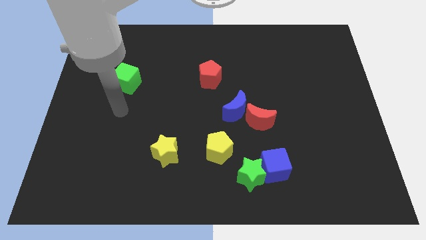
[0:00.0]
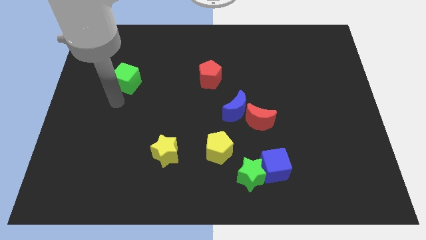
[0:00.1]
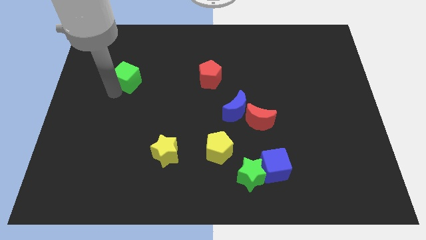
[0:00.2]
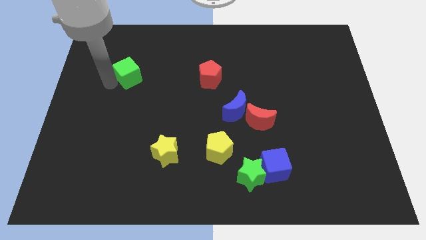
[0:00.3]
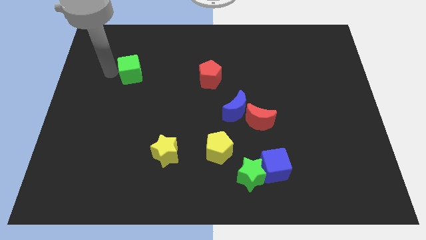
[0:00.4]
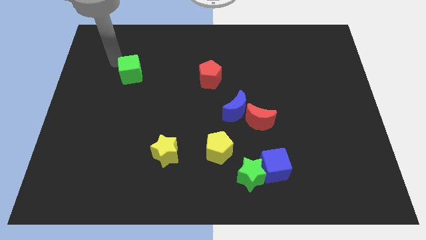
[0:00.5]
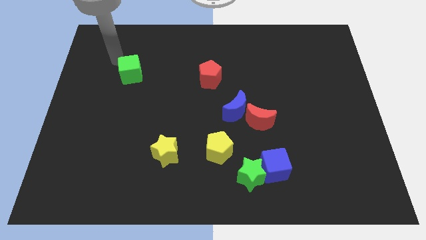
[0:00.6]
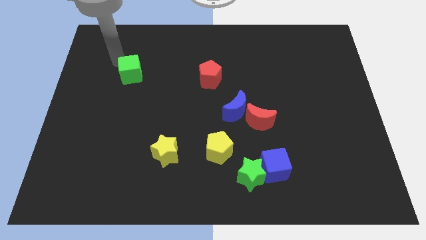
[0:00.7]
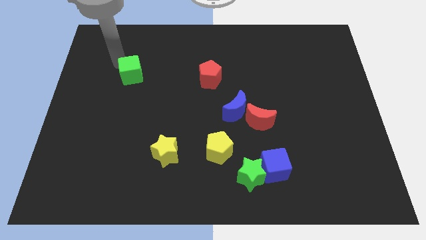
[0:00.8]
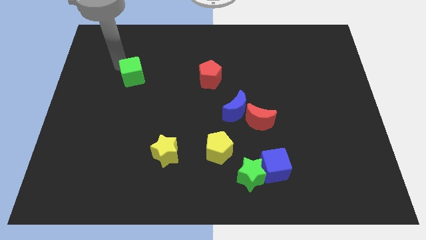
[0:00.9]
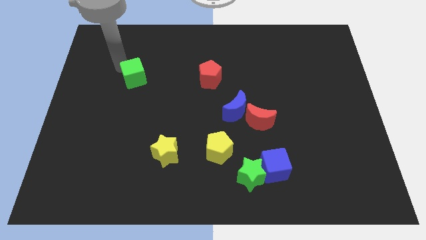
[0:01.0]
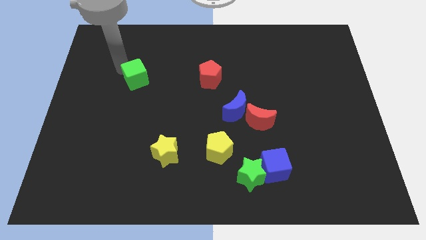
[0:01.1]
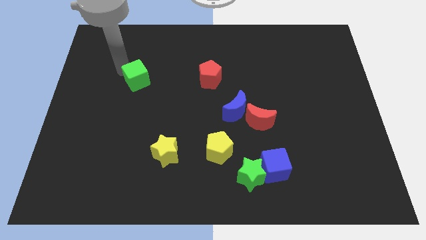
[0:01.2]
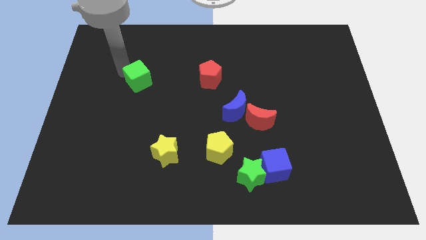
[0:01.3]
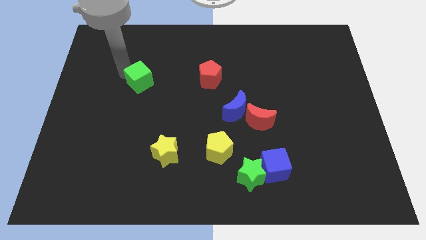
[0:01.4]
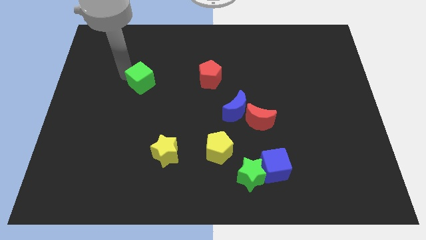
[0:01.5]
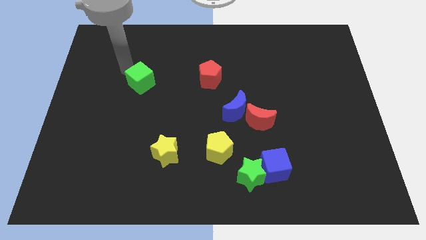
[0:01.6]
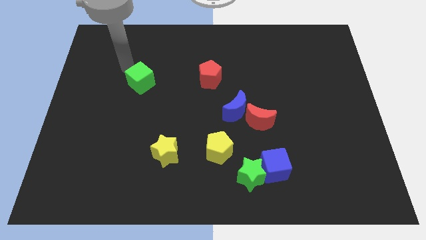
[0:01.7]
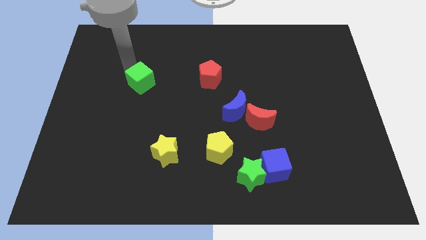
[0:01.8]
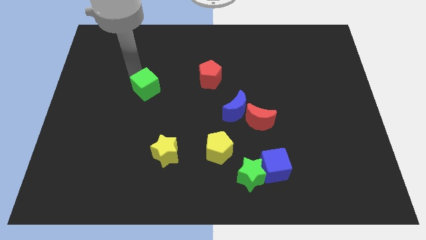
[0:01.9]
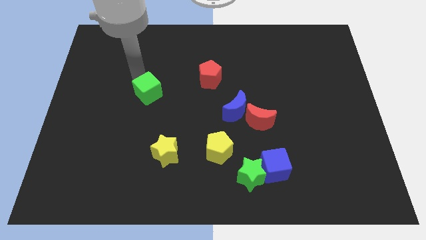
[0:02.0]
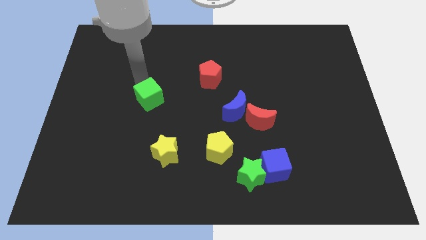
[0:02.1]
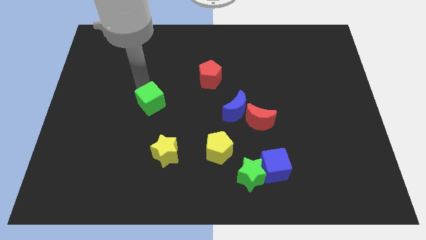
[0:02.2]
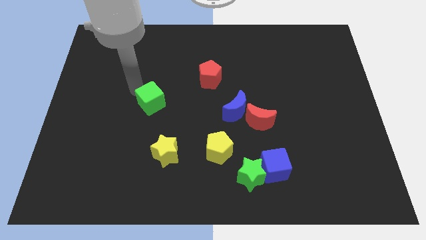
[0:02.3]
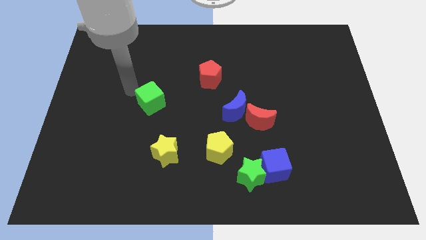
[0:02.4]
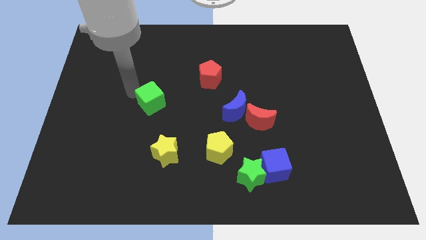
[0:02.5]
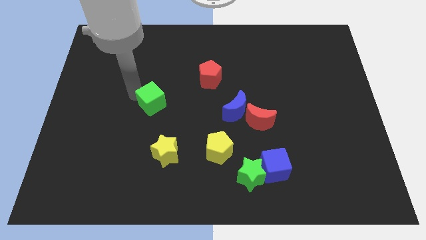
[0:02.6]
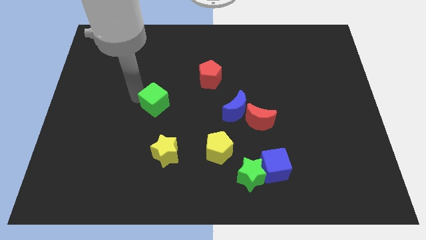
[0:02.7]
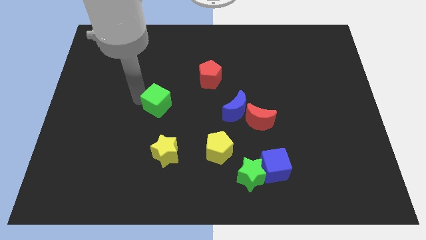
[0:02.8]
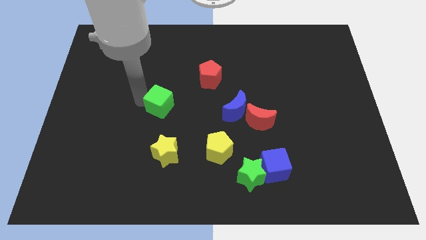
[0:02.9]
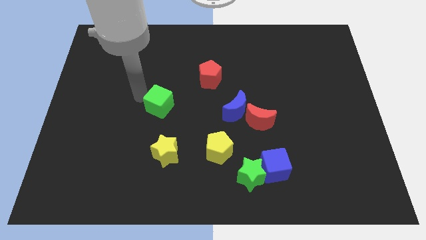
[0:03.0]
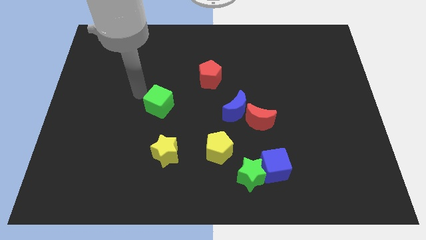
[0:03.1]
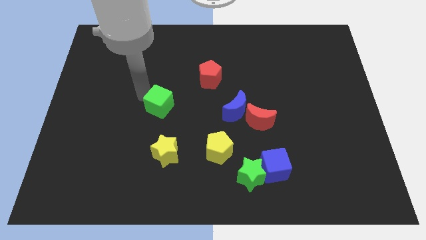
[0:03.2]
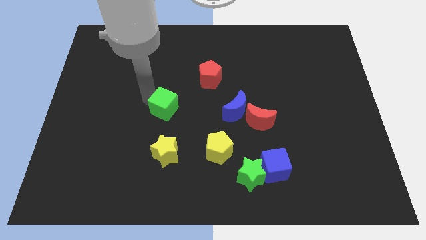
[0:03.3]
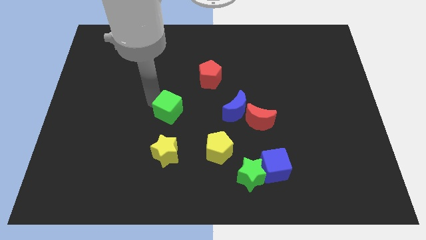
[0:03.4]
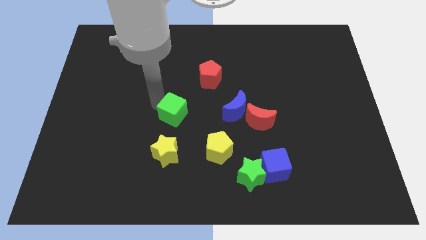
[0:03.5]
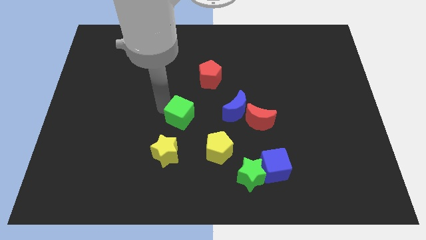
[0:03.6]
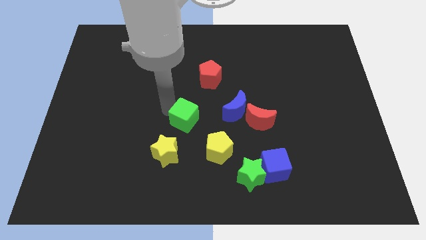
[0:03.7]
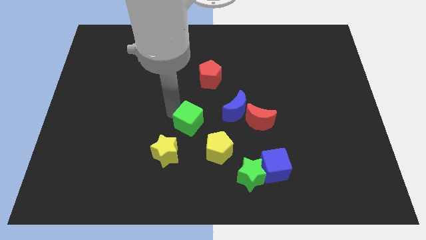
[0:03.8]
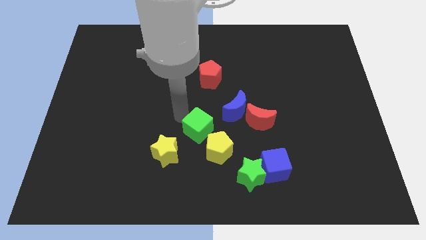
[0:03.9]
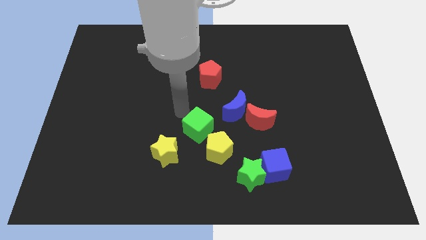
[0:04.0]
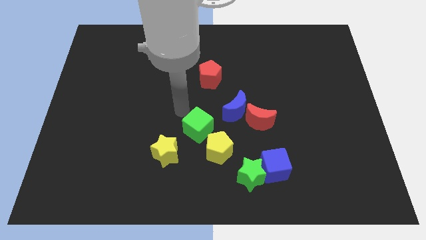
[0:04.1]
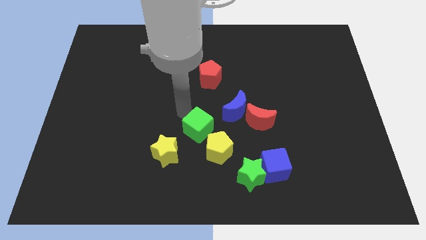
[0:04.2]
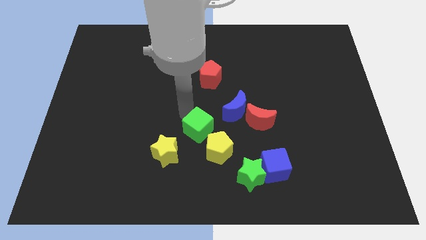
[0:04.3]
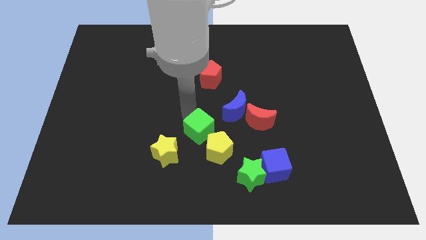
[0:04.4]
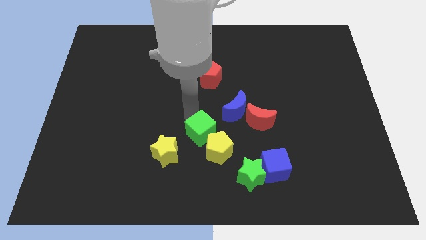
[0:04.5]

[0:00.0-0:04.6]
put the green cube close to the yellow pentagon

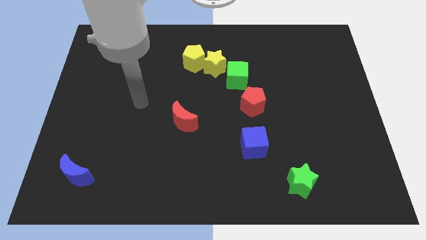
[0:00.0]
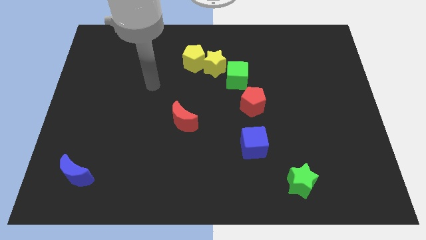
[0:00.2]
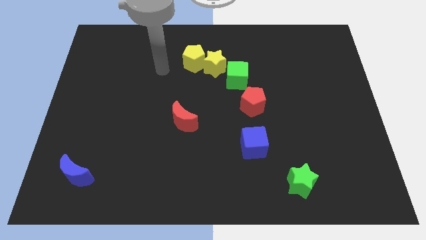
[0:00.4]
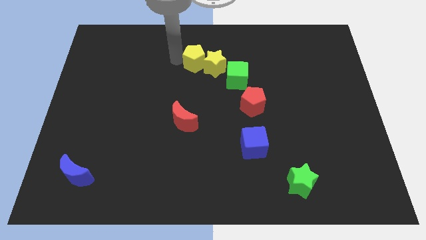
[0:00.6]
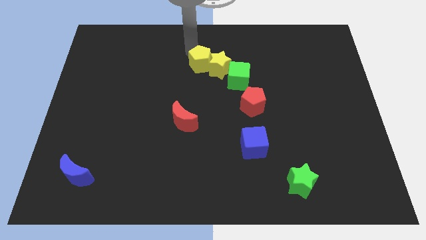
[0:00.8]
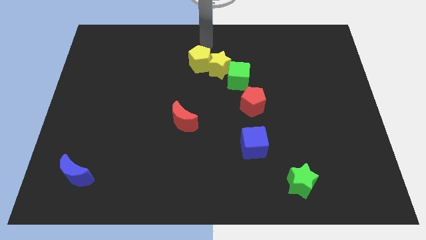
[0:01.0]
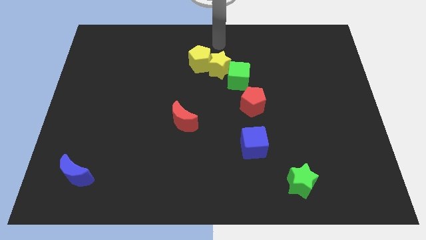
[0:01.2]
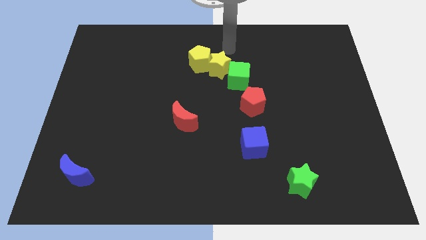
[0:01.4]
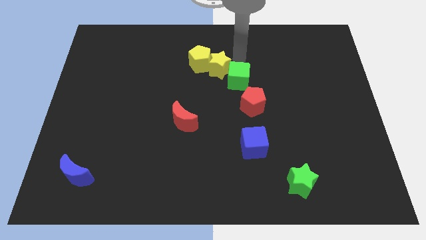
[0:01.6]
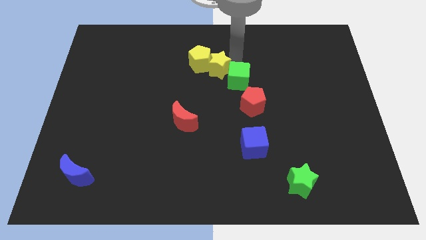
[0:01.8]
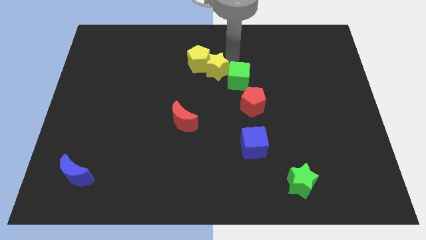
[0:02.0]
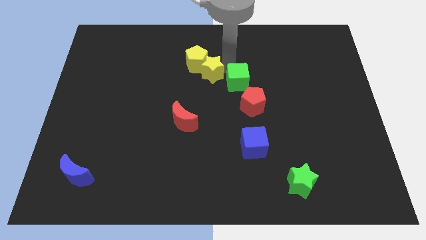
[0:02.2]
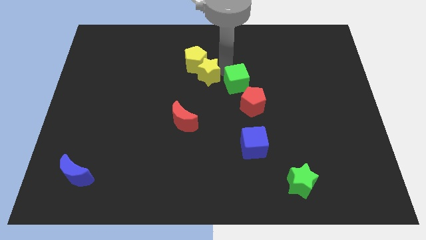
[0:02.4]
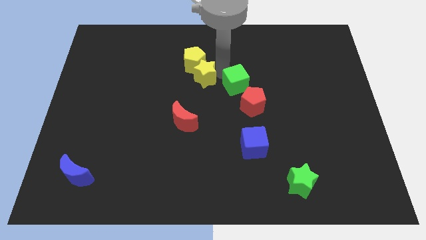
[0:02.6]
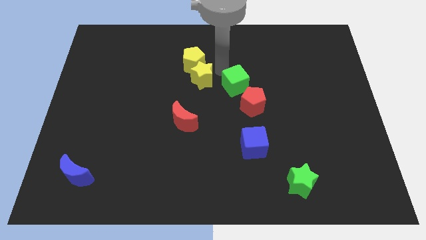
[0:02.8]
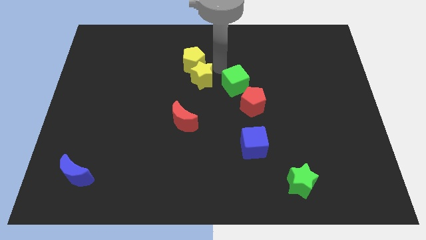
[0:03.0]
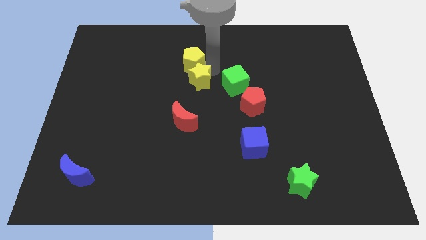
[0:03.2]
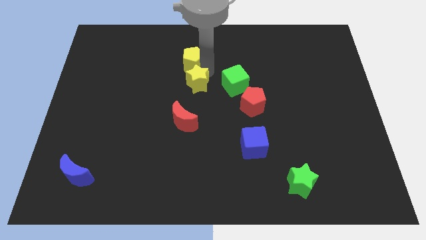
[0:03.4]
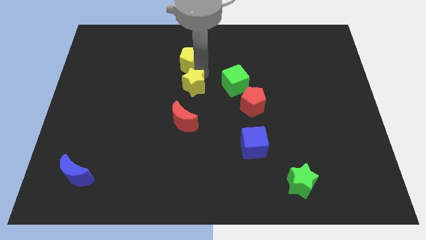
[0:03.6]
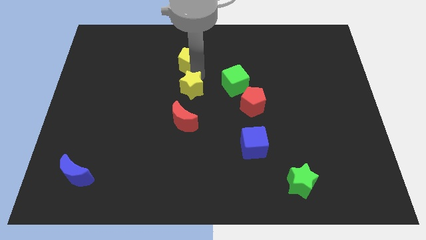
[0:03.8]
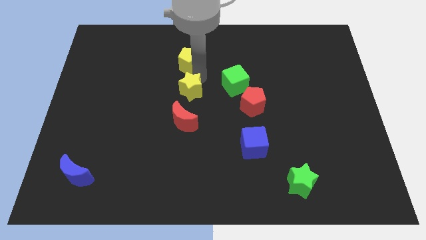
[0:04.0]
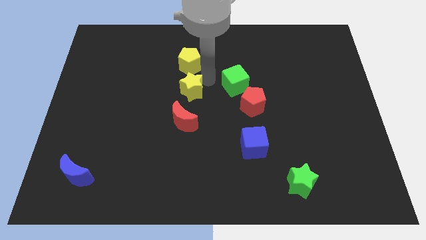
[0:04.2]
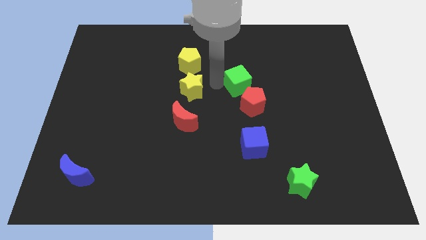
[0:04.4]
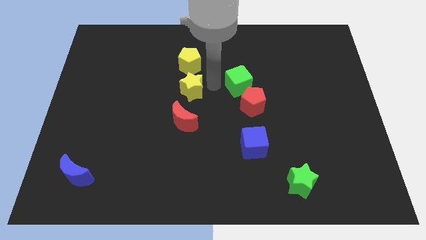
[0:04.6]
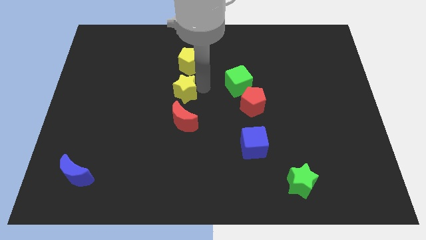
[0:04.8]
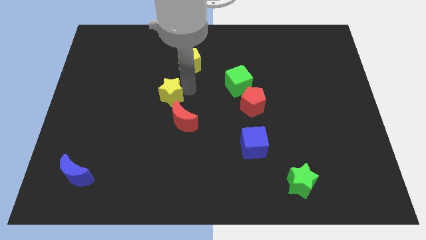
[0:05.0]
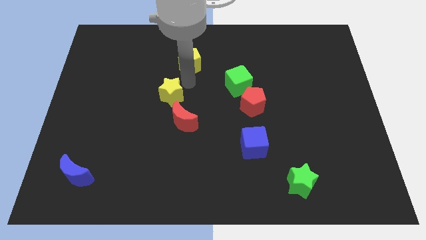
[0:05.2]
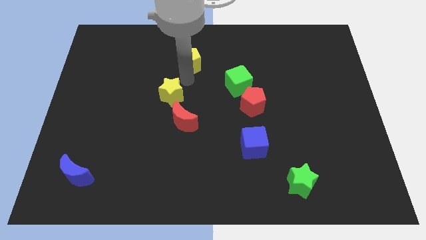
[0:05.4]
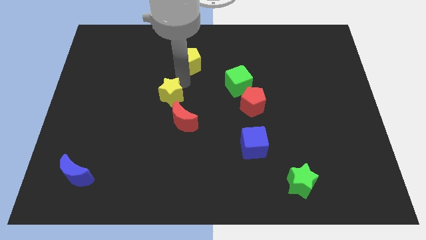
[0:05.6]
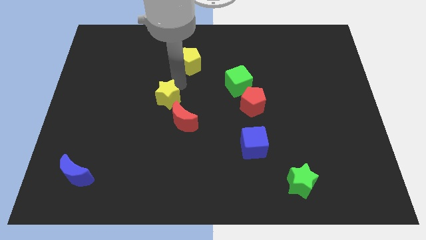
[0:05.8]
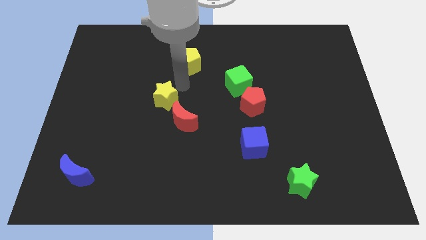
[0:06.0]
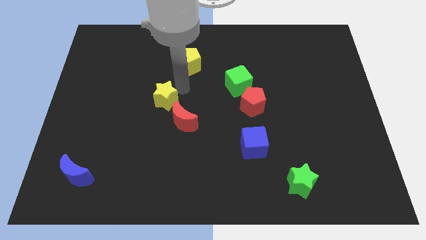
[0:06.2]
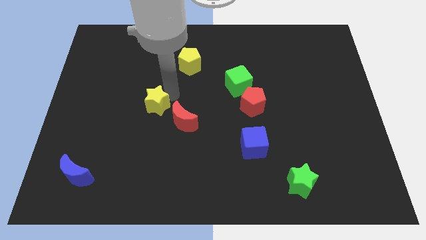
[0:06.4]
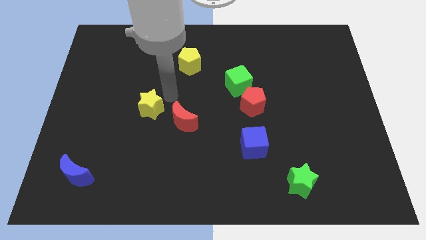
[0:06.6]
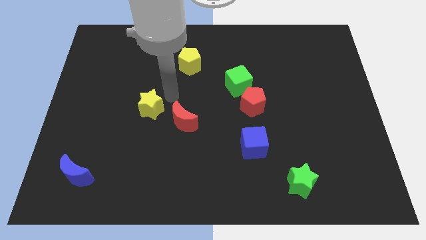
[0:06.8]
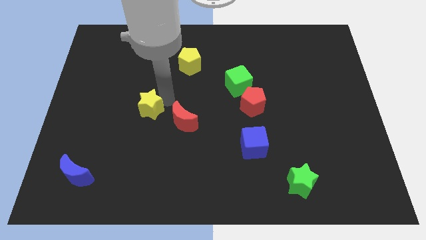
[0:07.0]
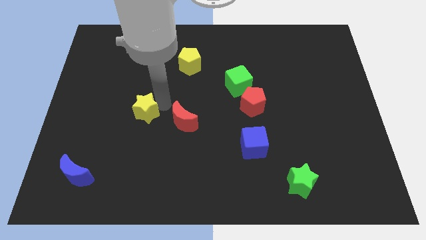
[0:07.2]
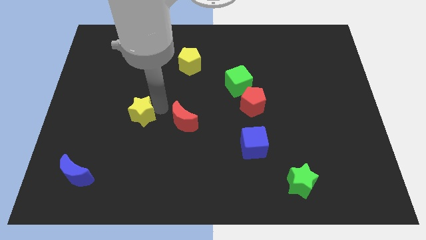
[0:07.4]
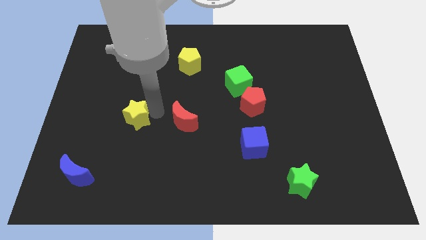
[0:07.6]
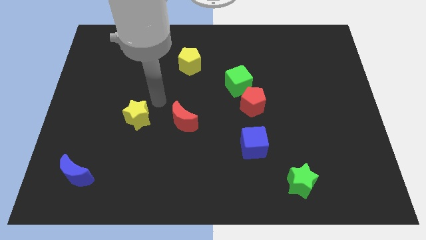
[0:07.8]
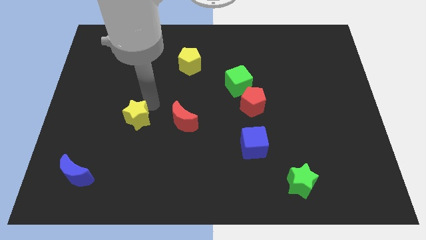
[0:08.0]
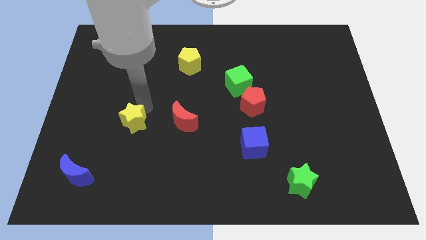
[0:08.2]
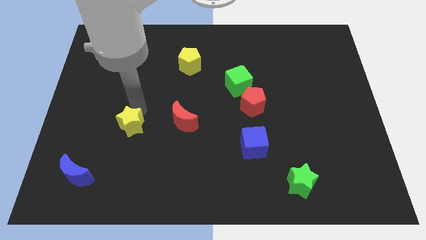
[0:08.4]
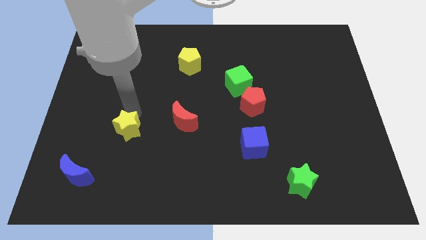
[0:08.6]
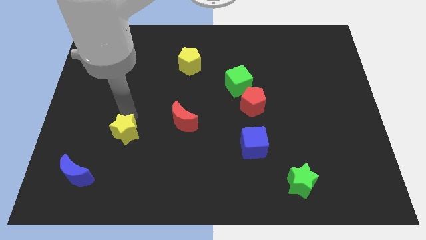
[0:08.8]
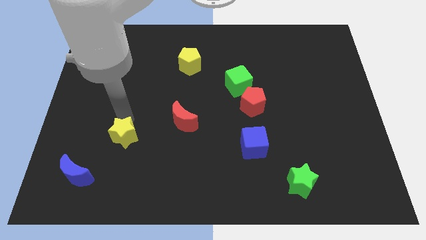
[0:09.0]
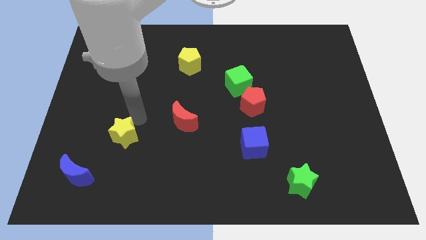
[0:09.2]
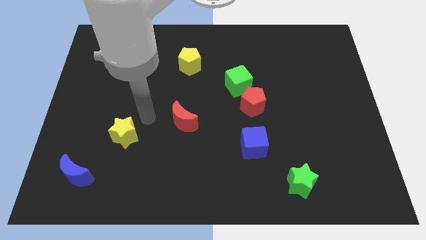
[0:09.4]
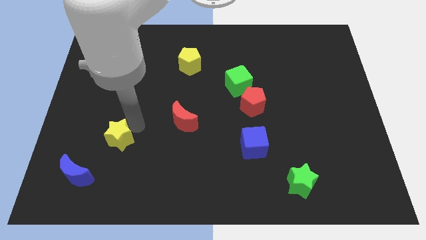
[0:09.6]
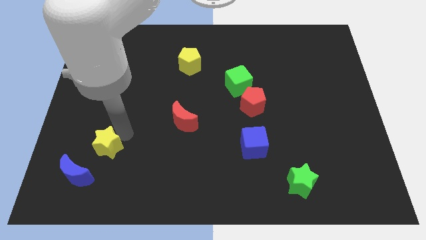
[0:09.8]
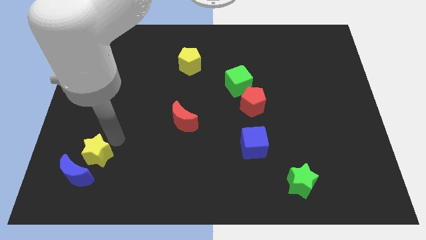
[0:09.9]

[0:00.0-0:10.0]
move the yellow star next to the blue moon
